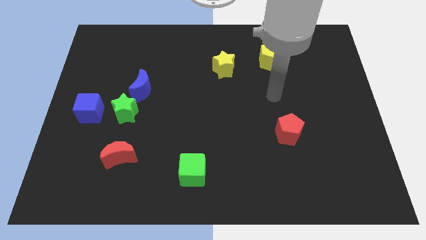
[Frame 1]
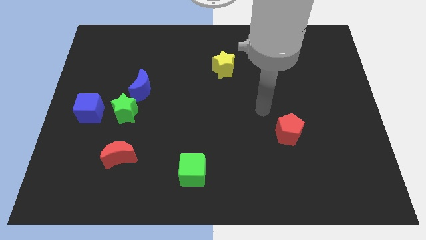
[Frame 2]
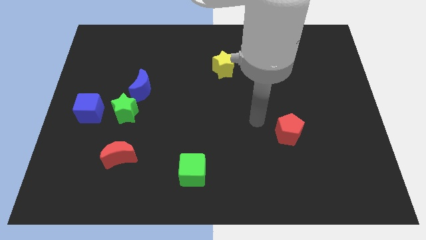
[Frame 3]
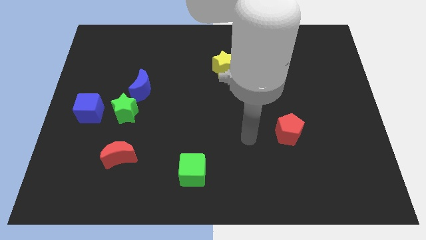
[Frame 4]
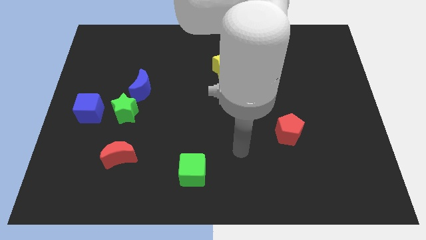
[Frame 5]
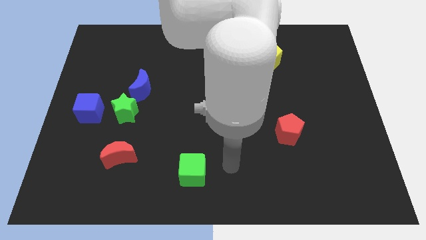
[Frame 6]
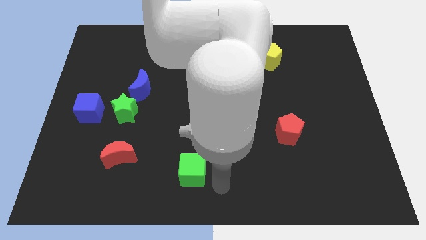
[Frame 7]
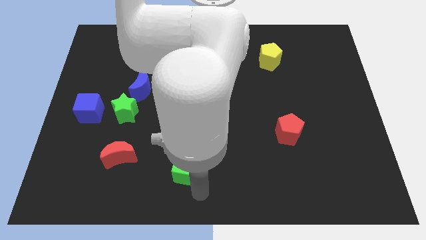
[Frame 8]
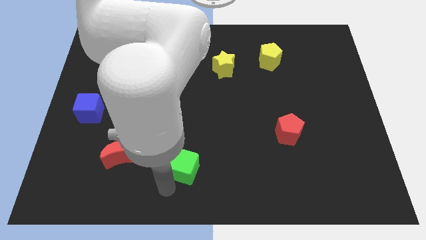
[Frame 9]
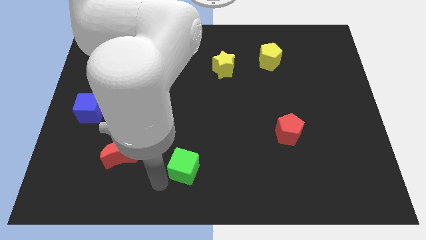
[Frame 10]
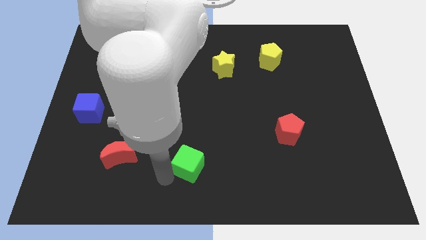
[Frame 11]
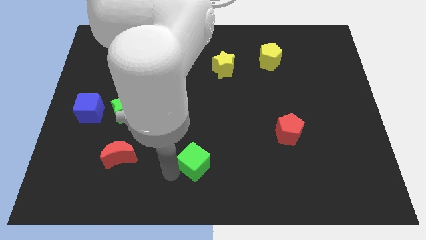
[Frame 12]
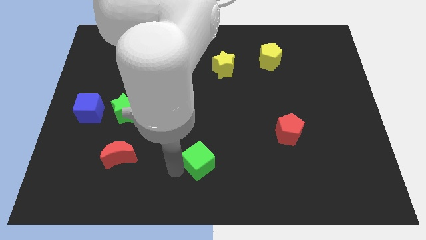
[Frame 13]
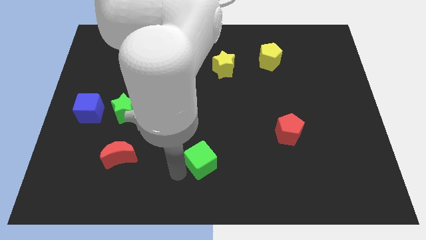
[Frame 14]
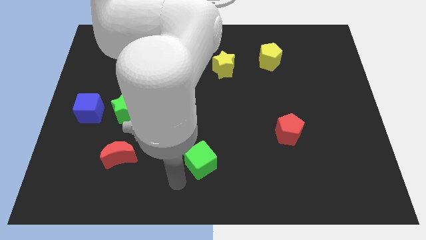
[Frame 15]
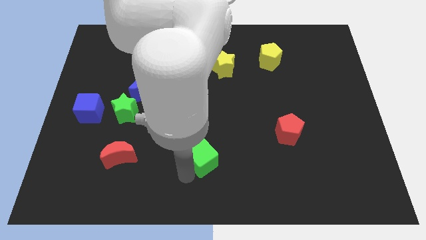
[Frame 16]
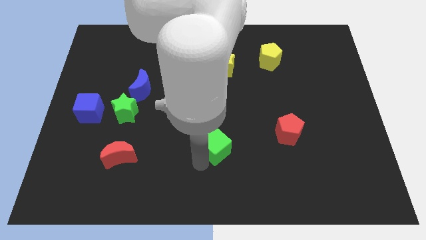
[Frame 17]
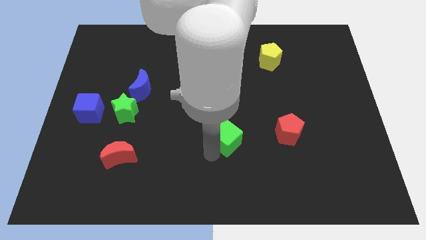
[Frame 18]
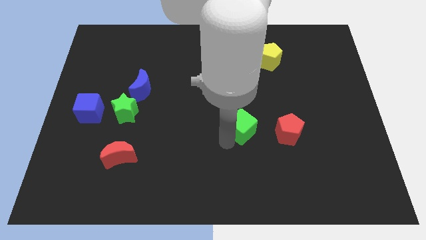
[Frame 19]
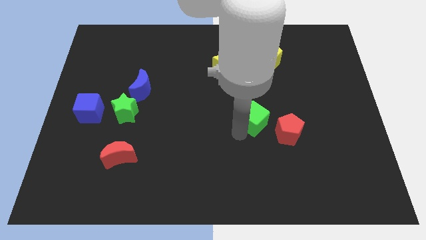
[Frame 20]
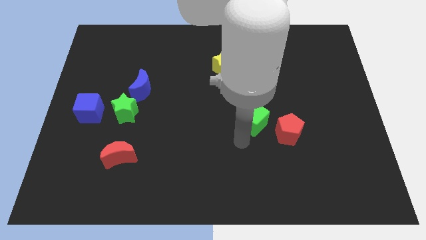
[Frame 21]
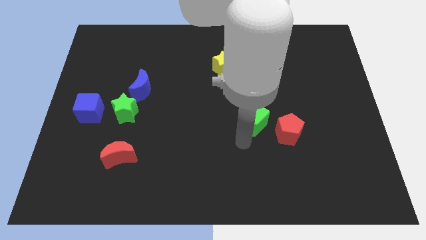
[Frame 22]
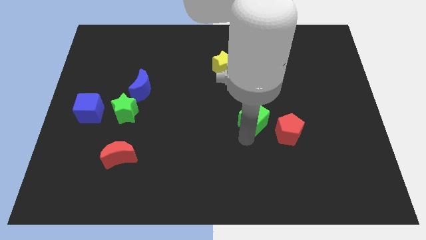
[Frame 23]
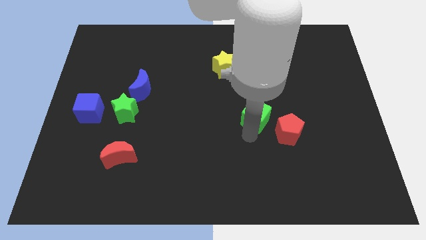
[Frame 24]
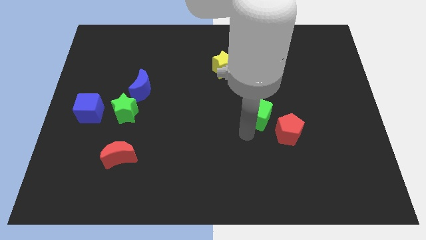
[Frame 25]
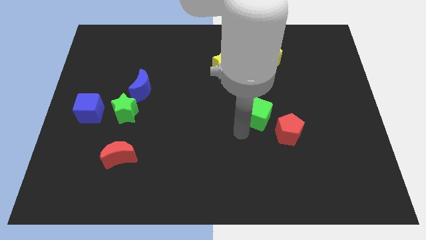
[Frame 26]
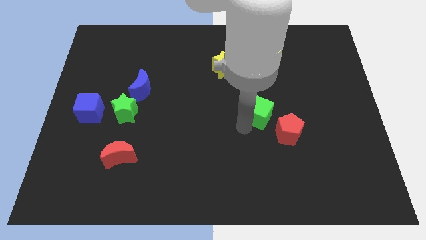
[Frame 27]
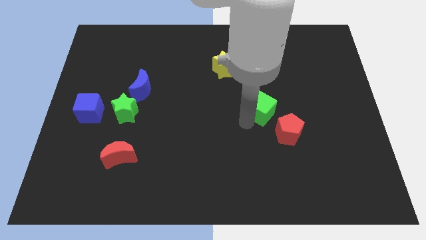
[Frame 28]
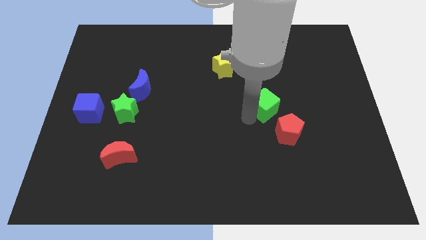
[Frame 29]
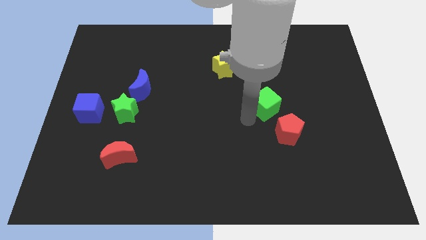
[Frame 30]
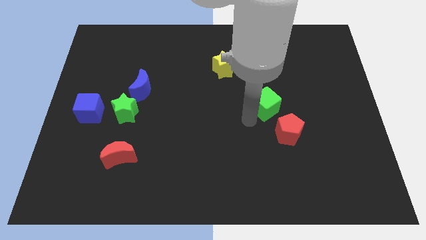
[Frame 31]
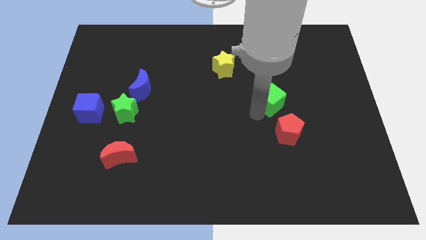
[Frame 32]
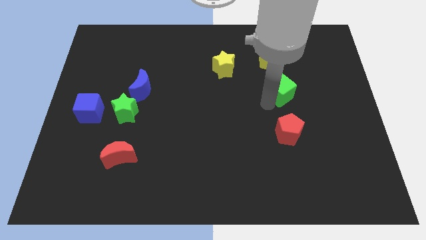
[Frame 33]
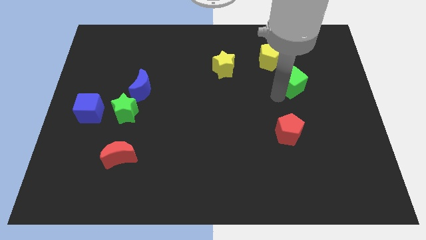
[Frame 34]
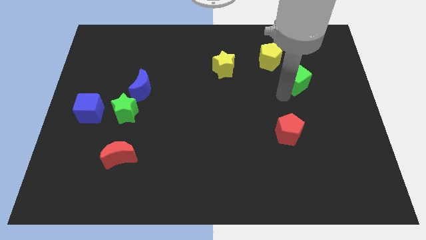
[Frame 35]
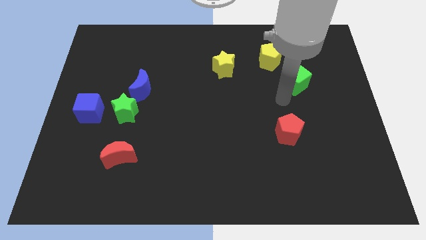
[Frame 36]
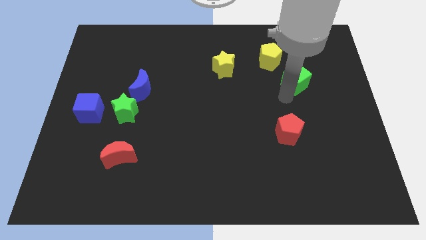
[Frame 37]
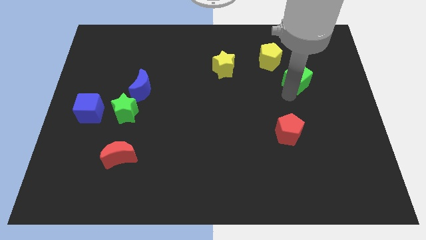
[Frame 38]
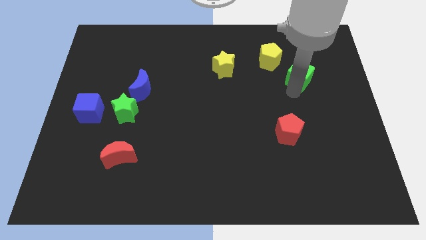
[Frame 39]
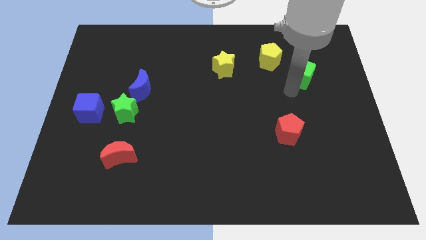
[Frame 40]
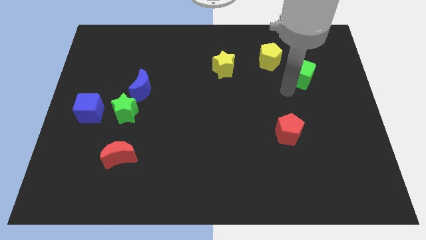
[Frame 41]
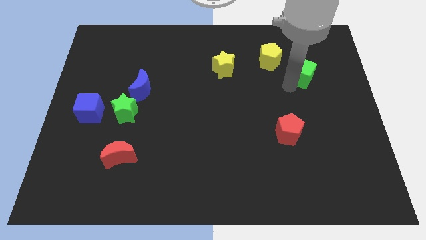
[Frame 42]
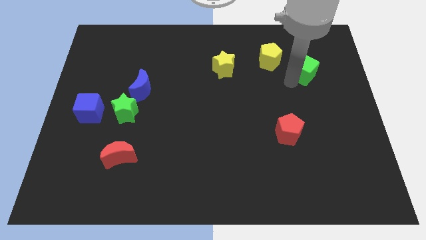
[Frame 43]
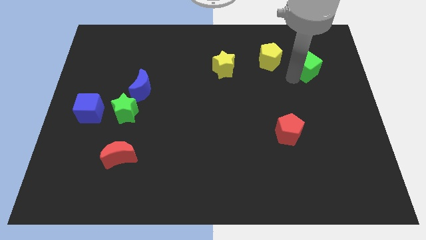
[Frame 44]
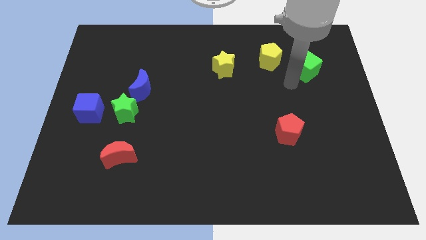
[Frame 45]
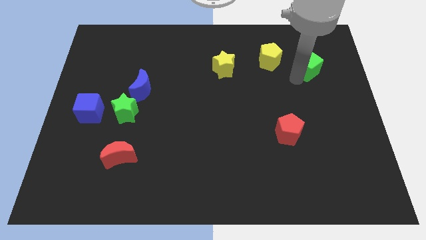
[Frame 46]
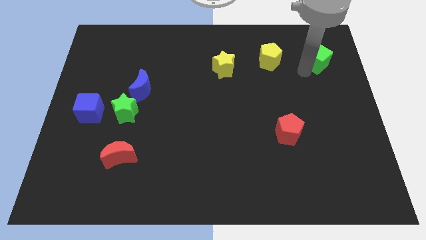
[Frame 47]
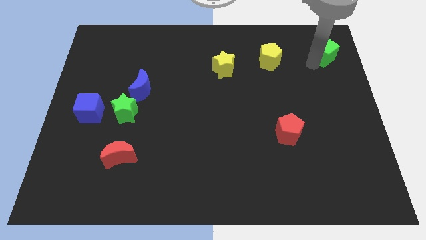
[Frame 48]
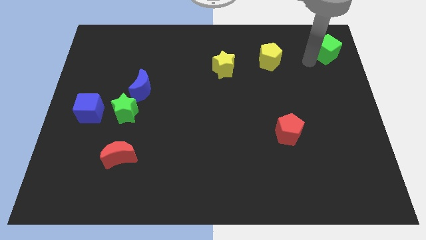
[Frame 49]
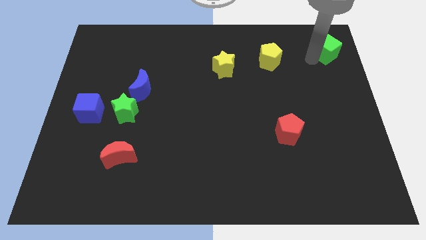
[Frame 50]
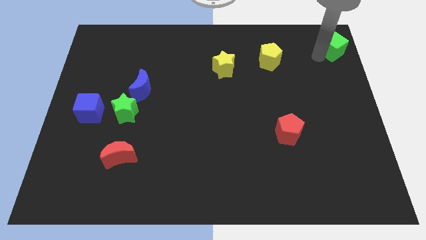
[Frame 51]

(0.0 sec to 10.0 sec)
put the green cube to the top right
